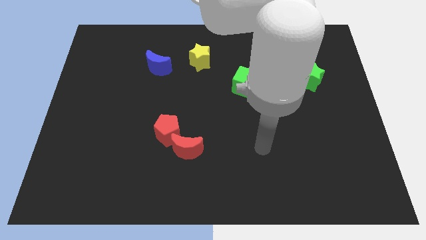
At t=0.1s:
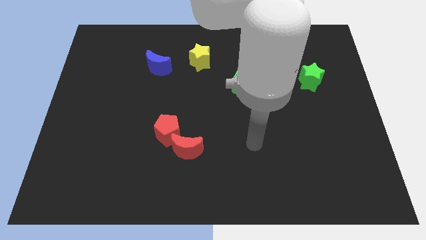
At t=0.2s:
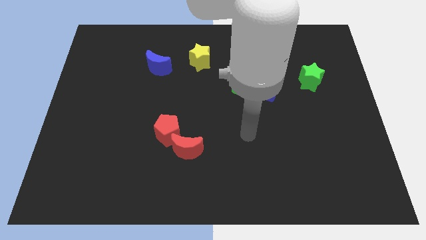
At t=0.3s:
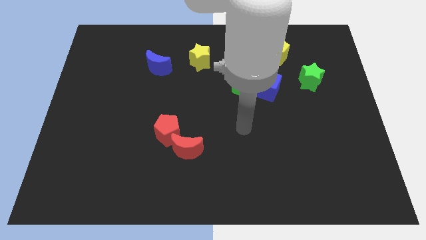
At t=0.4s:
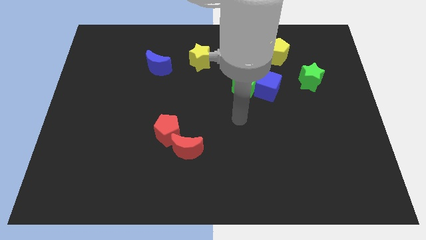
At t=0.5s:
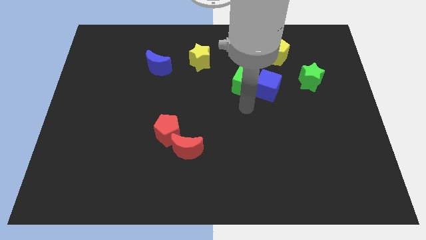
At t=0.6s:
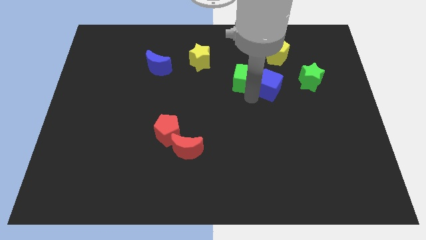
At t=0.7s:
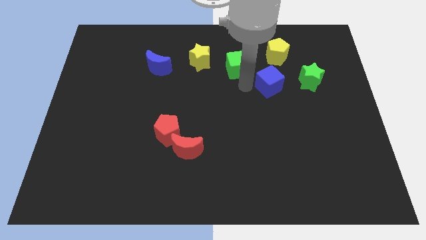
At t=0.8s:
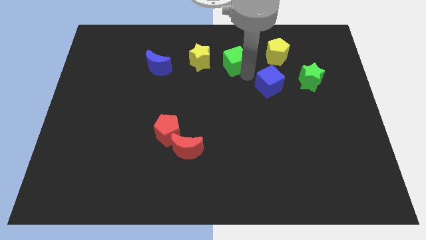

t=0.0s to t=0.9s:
move the blue cube away from the green cube

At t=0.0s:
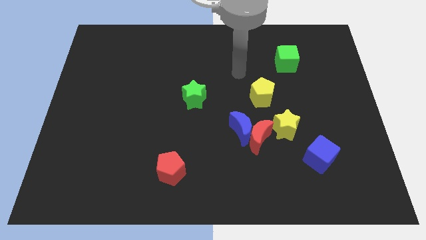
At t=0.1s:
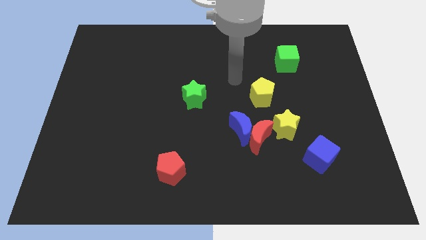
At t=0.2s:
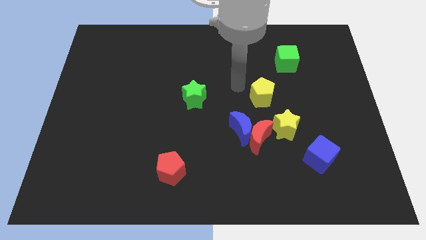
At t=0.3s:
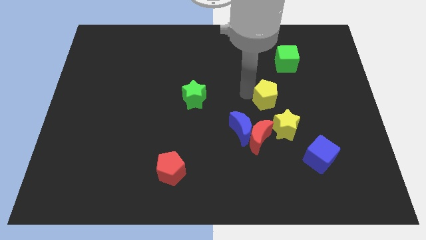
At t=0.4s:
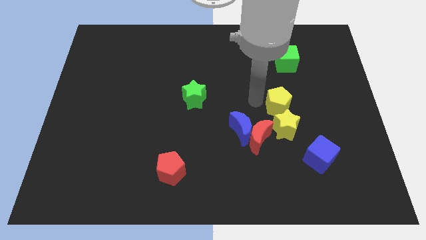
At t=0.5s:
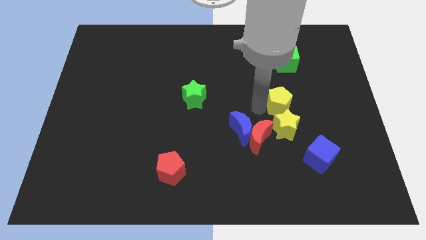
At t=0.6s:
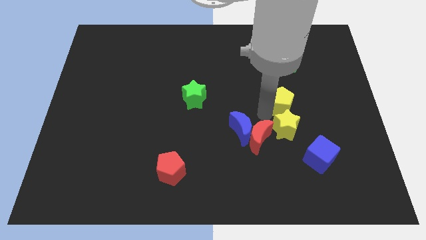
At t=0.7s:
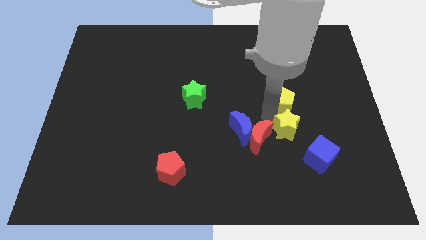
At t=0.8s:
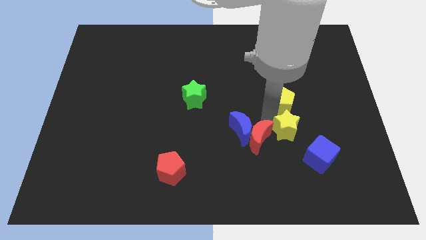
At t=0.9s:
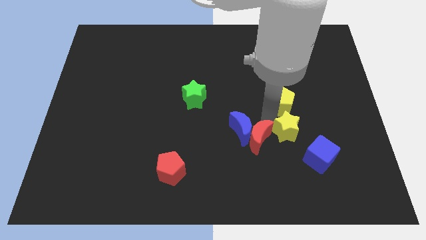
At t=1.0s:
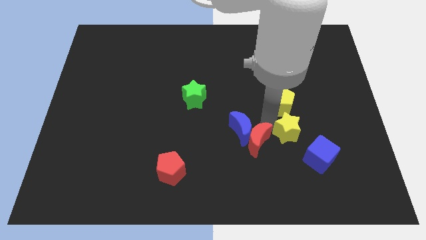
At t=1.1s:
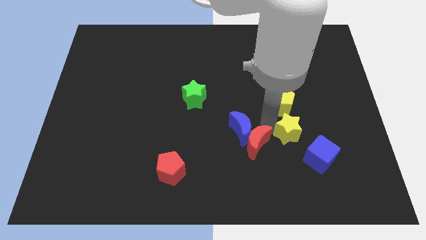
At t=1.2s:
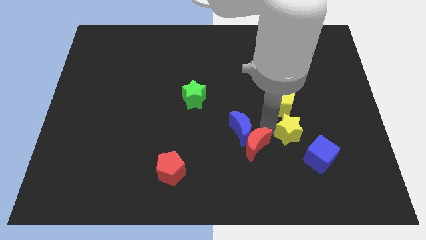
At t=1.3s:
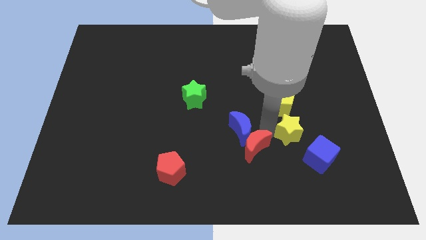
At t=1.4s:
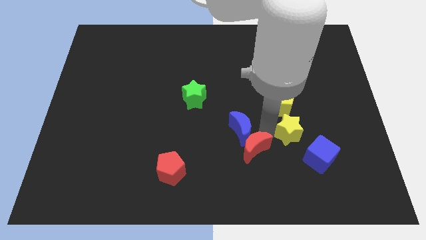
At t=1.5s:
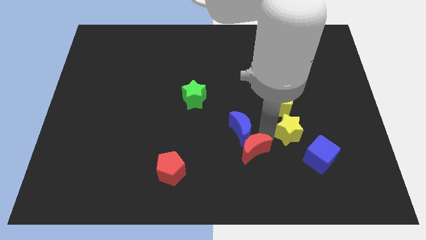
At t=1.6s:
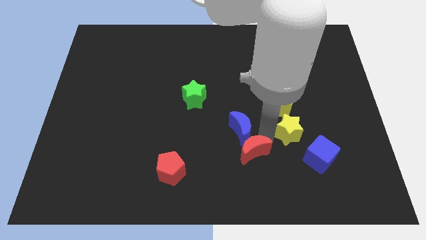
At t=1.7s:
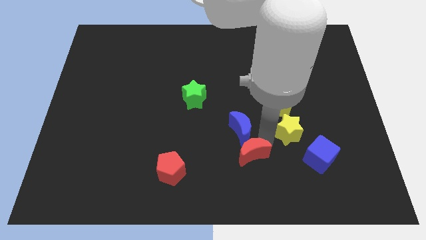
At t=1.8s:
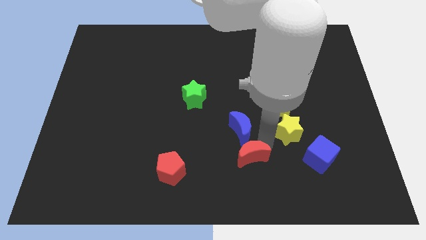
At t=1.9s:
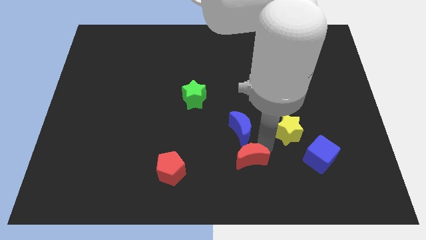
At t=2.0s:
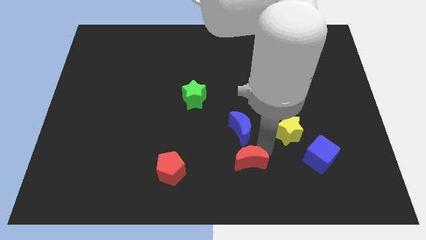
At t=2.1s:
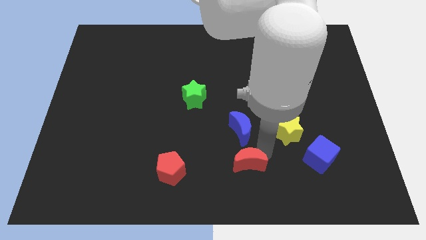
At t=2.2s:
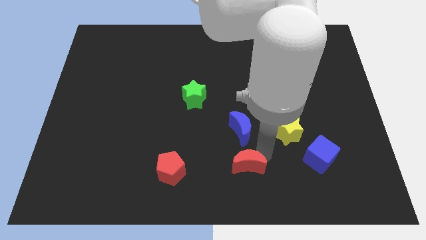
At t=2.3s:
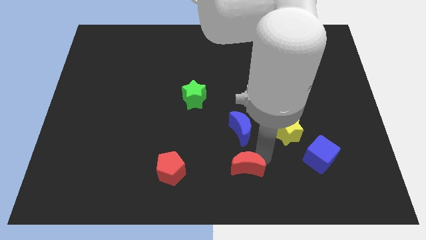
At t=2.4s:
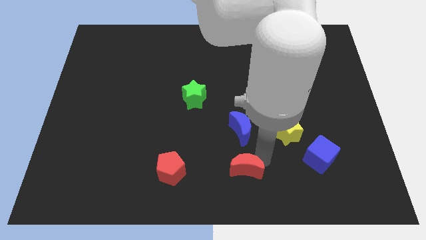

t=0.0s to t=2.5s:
pull the red moon apart from the blue moon and yellow star

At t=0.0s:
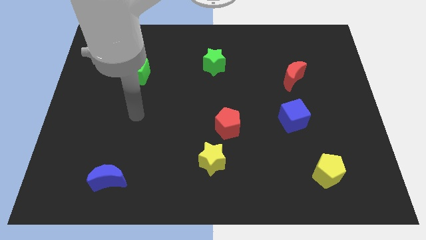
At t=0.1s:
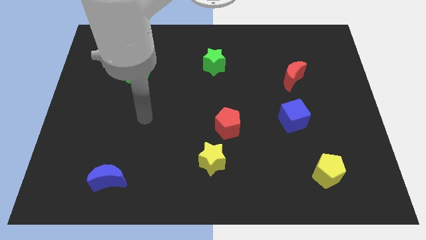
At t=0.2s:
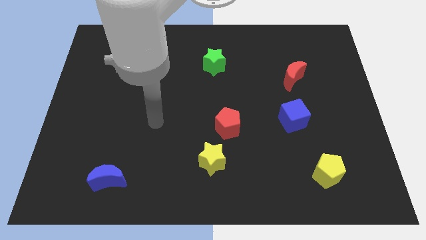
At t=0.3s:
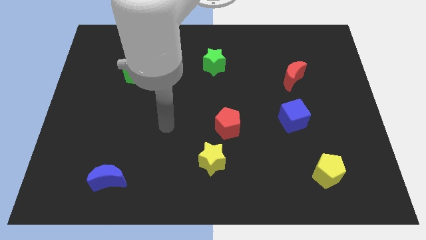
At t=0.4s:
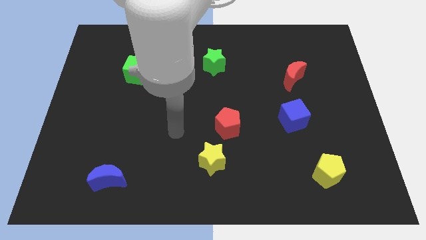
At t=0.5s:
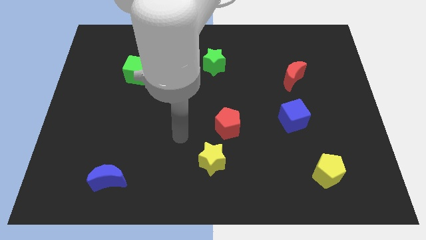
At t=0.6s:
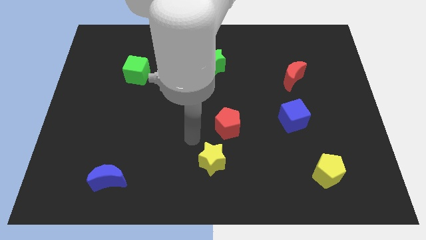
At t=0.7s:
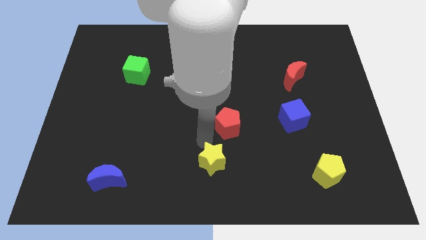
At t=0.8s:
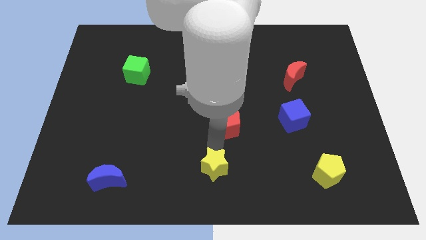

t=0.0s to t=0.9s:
move the red pentagon away from the yellow star

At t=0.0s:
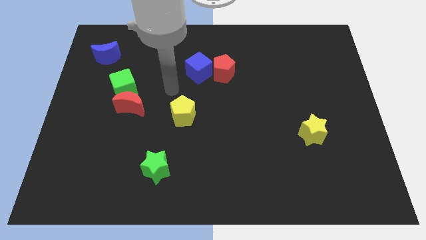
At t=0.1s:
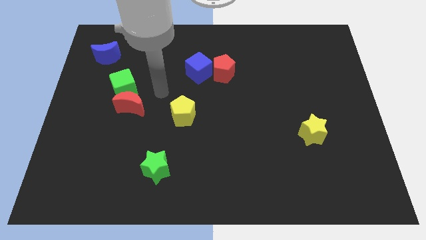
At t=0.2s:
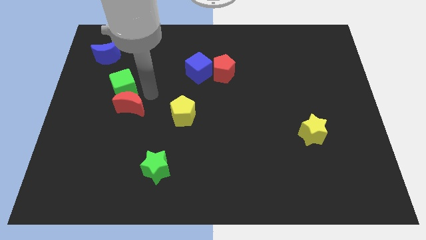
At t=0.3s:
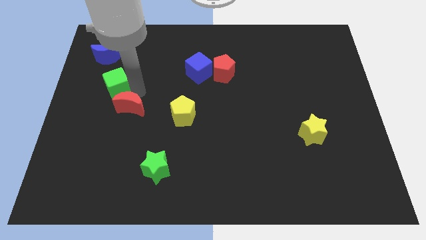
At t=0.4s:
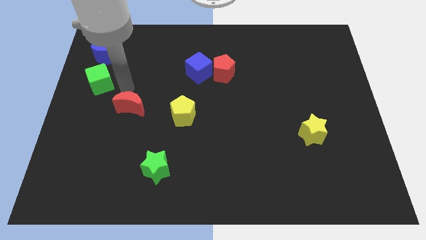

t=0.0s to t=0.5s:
pull the red moon apart from the green cube

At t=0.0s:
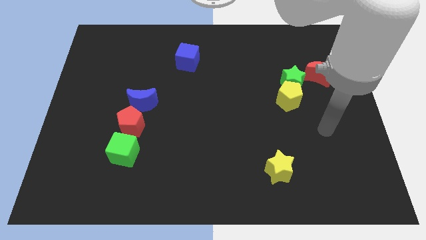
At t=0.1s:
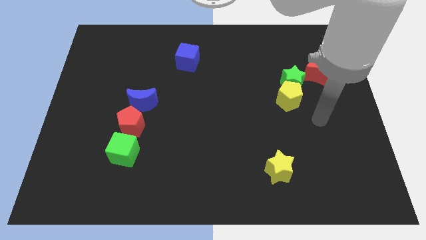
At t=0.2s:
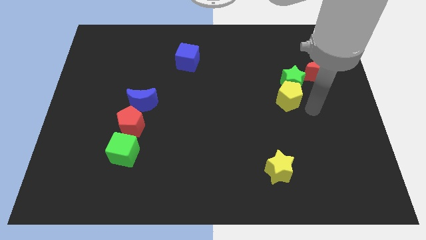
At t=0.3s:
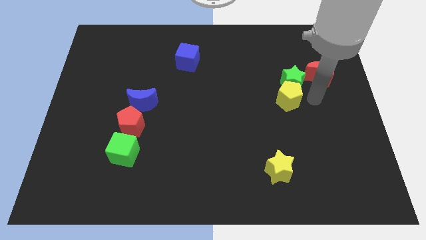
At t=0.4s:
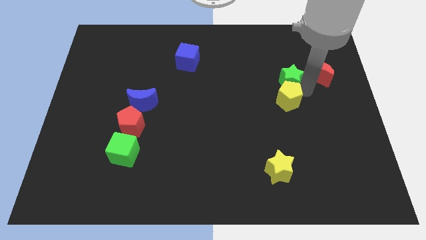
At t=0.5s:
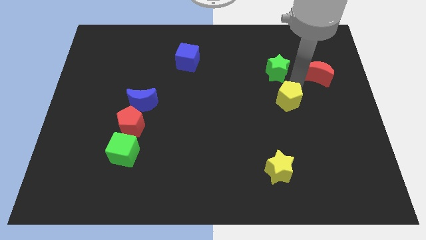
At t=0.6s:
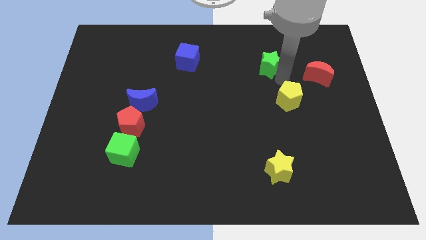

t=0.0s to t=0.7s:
separate the yellow pentagon from the green star

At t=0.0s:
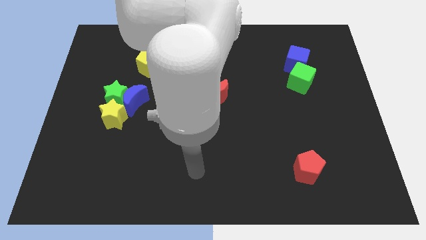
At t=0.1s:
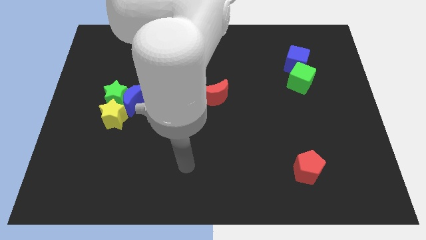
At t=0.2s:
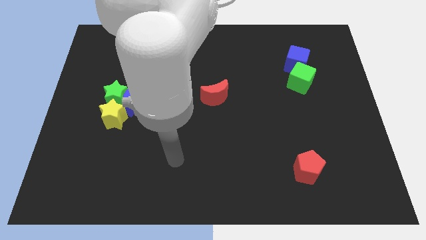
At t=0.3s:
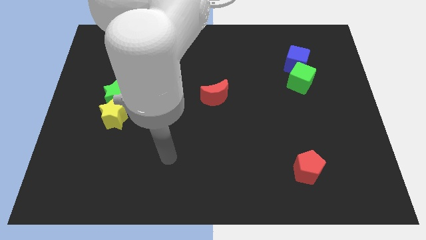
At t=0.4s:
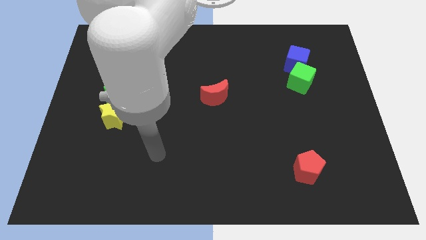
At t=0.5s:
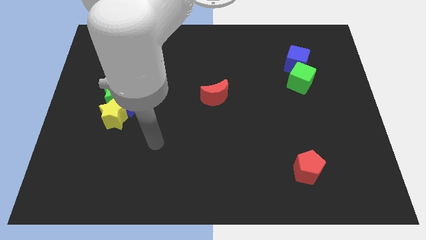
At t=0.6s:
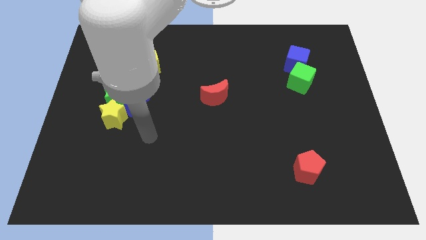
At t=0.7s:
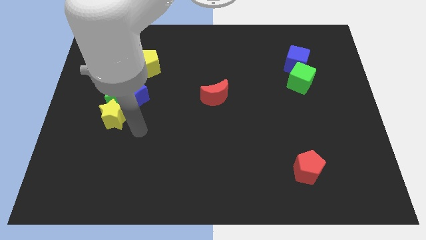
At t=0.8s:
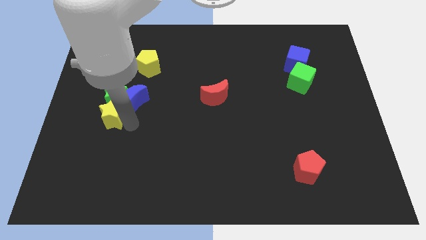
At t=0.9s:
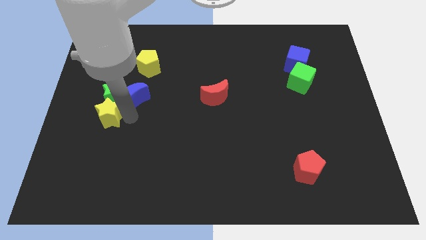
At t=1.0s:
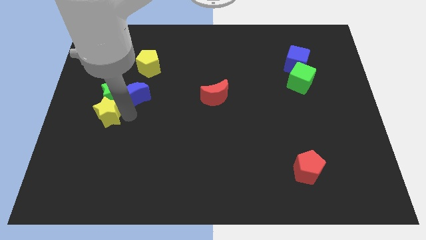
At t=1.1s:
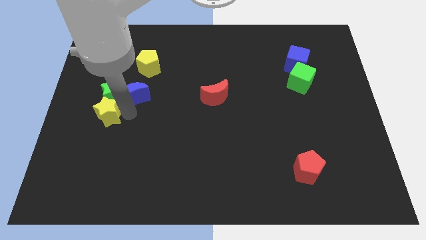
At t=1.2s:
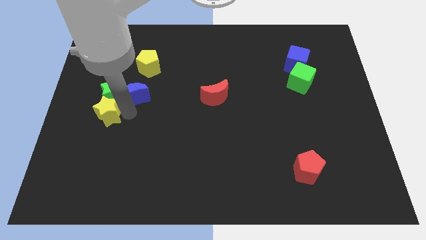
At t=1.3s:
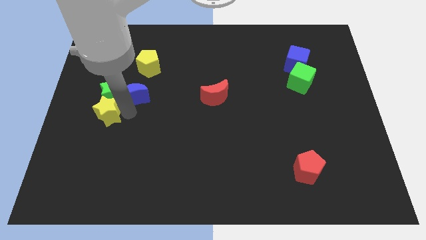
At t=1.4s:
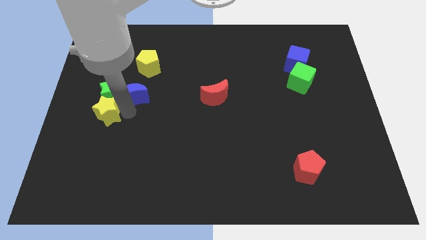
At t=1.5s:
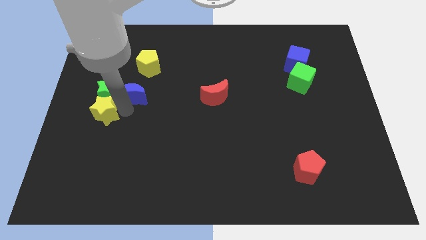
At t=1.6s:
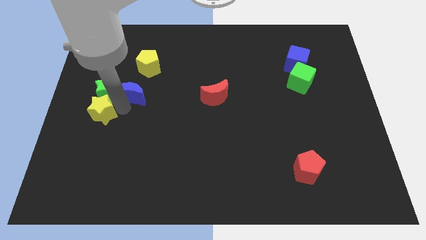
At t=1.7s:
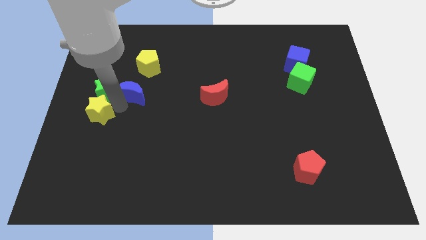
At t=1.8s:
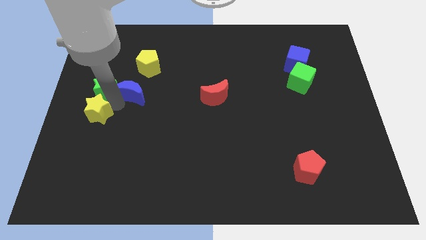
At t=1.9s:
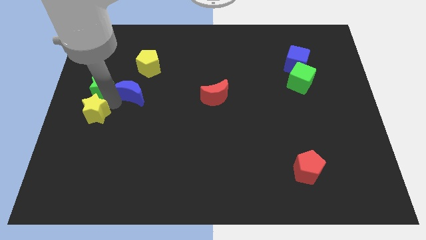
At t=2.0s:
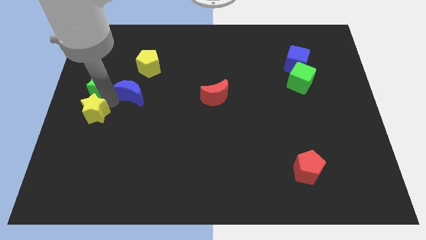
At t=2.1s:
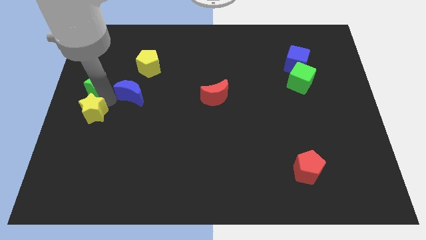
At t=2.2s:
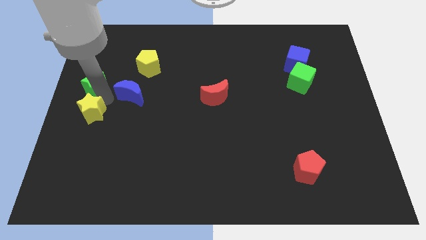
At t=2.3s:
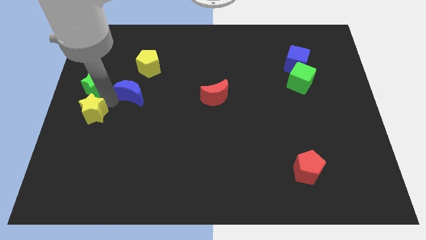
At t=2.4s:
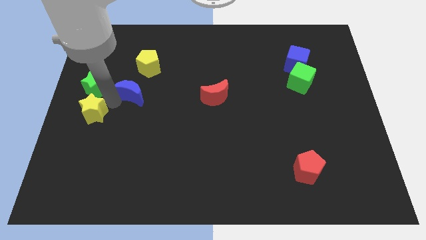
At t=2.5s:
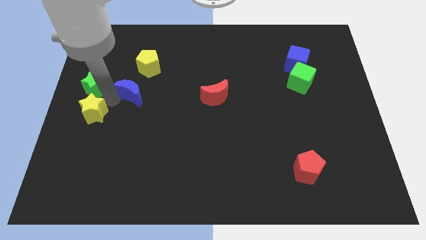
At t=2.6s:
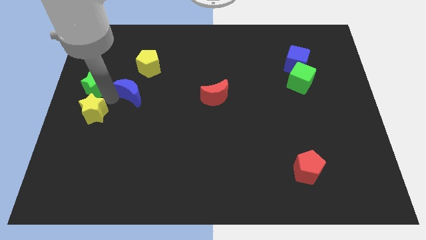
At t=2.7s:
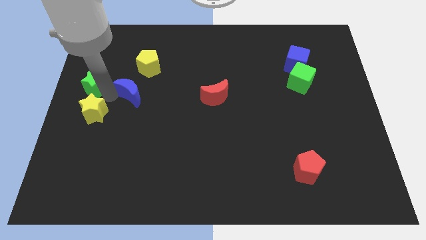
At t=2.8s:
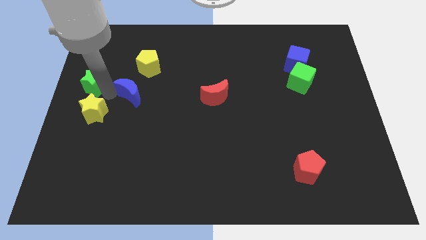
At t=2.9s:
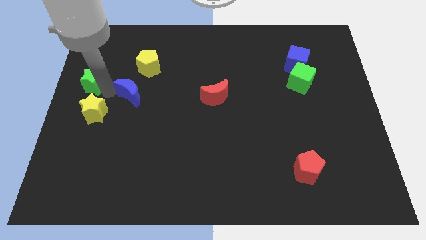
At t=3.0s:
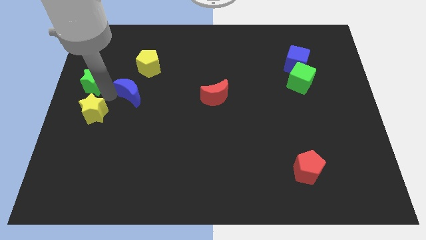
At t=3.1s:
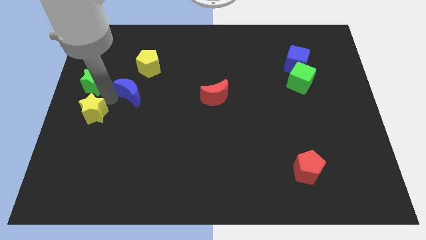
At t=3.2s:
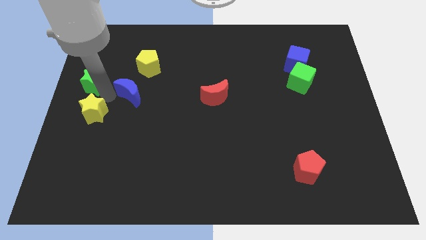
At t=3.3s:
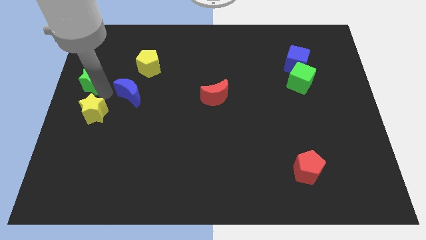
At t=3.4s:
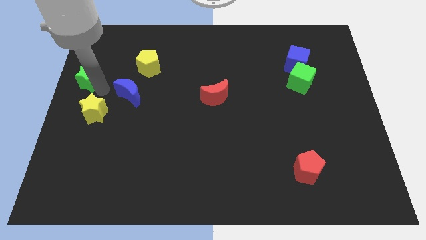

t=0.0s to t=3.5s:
pull the green star apart from the blue moon and yellow star

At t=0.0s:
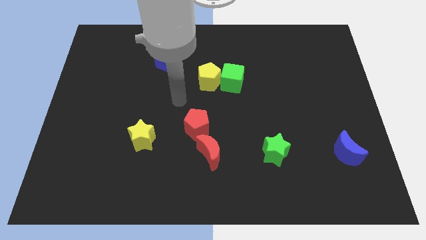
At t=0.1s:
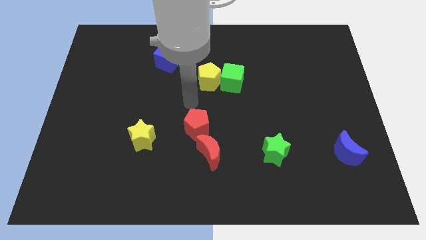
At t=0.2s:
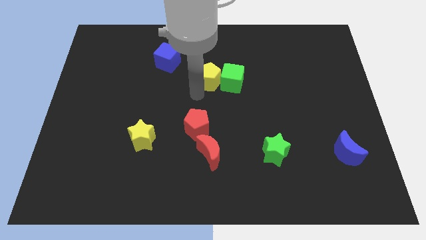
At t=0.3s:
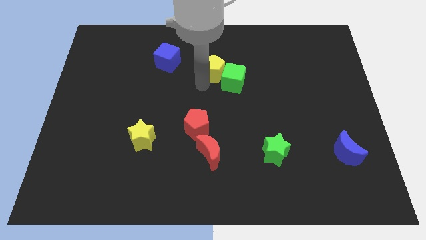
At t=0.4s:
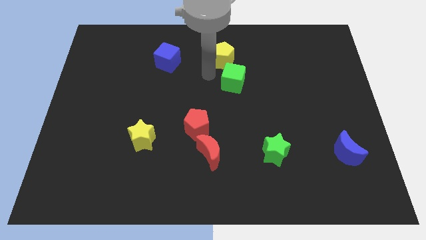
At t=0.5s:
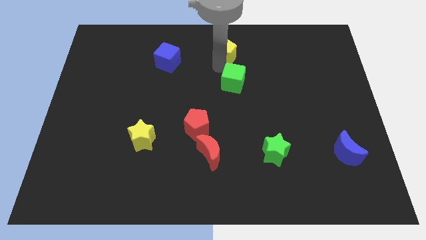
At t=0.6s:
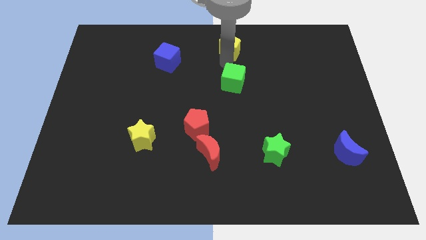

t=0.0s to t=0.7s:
pull the green cube apart from the yellow pentagon
